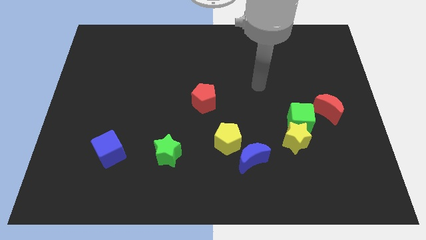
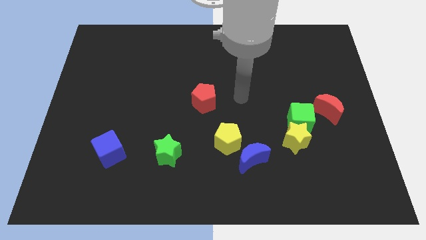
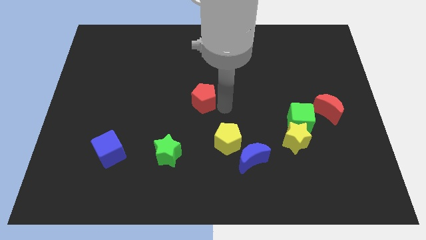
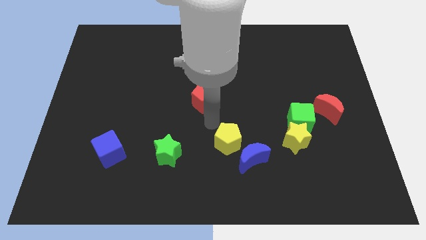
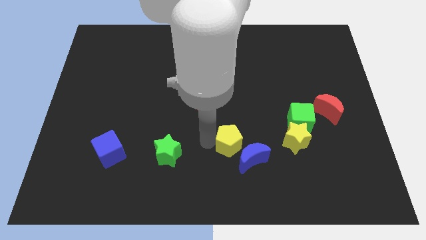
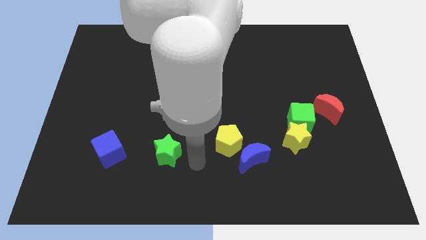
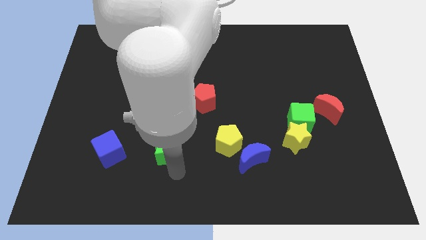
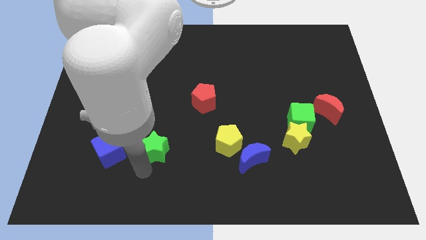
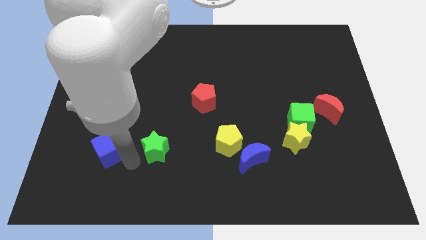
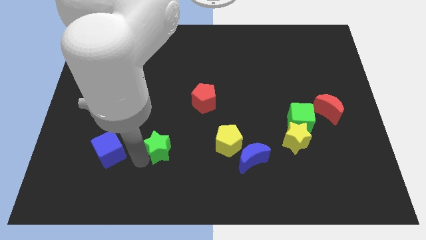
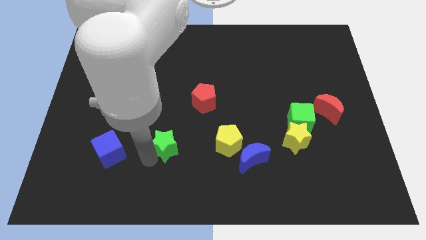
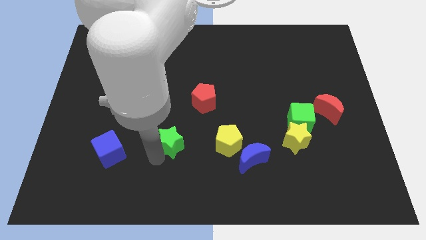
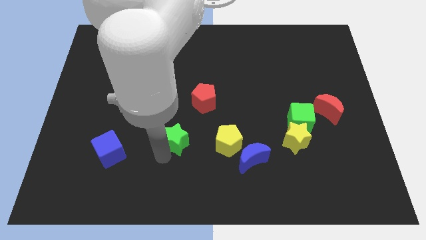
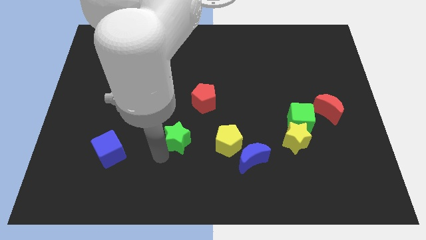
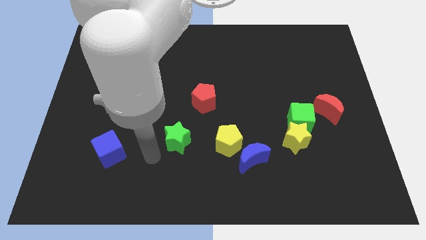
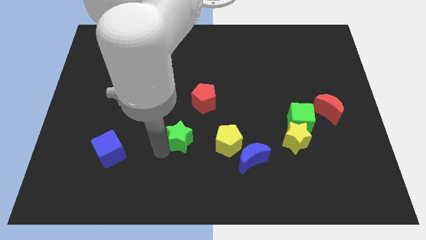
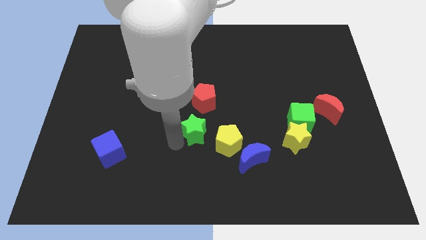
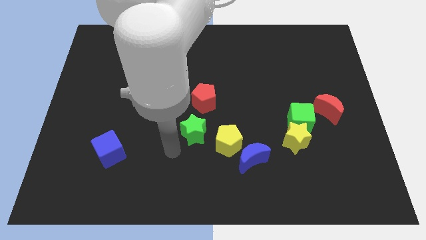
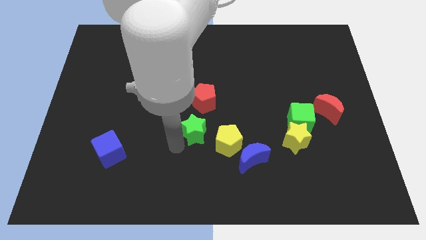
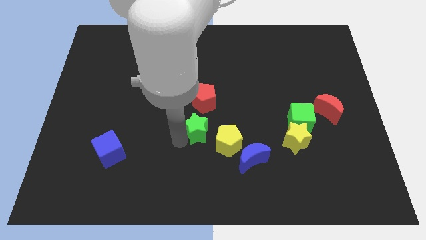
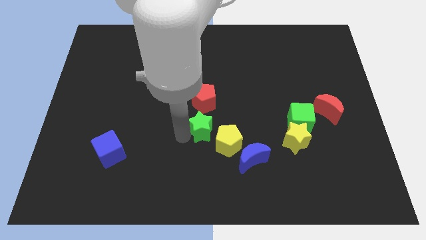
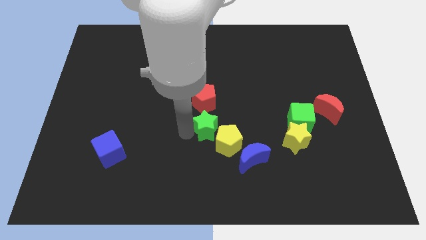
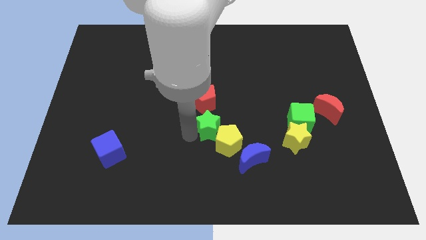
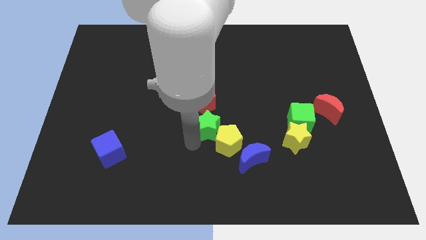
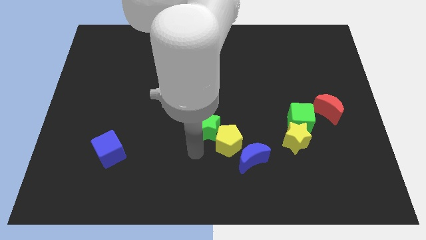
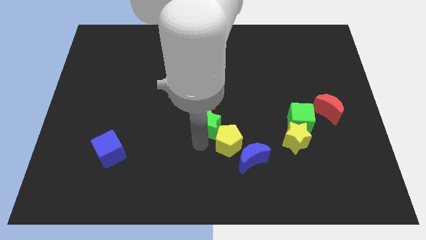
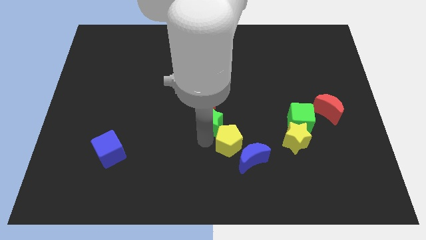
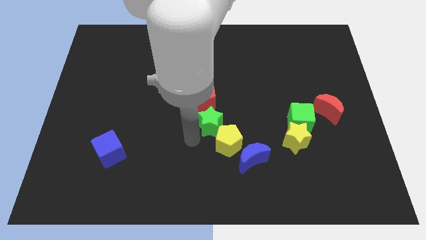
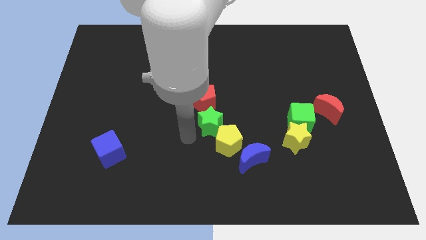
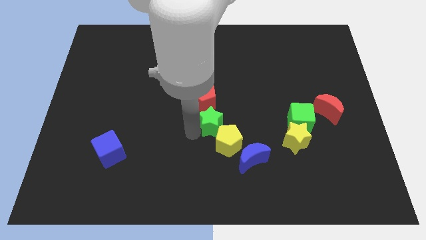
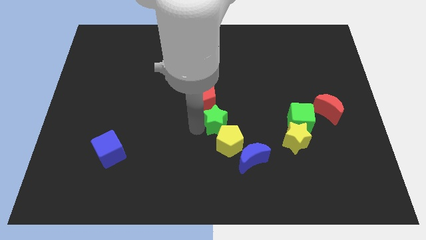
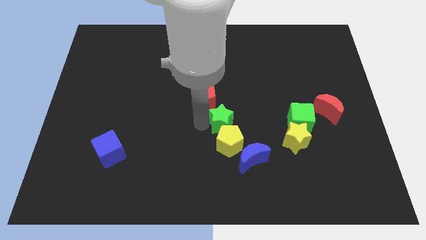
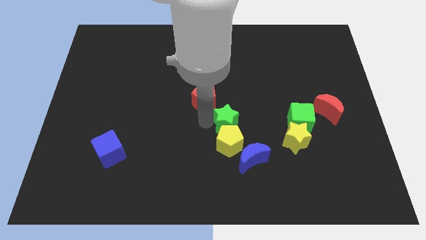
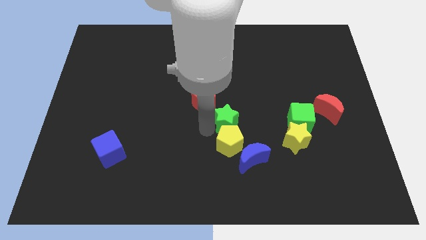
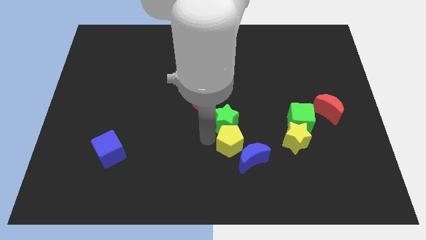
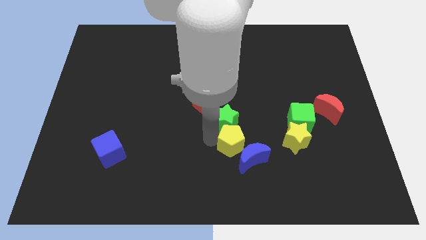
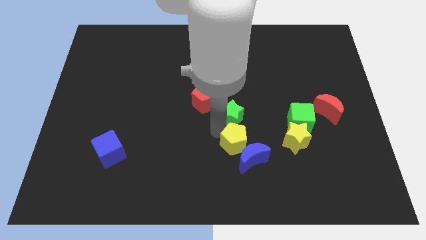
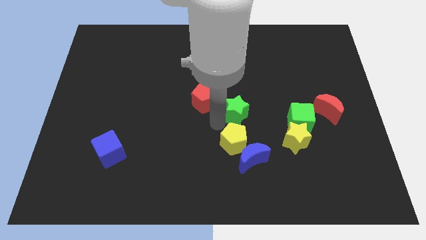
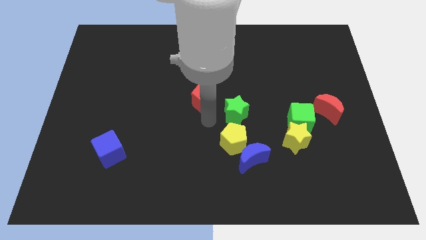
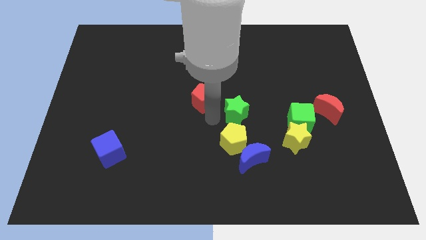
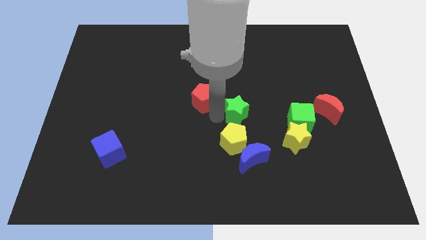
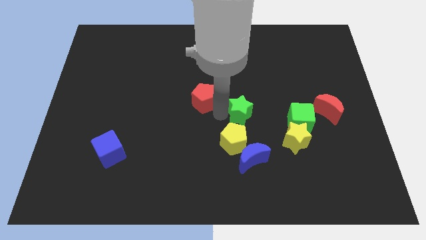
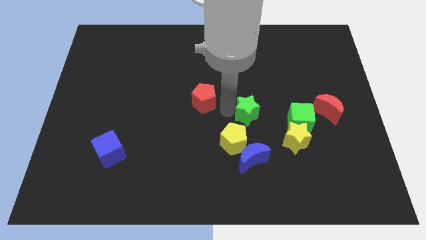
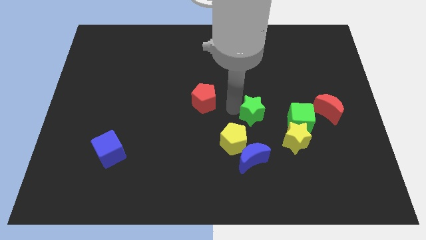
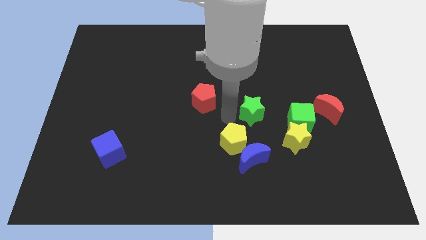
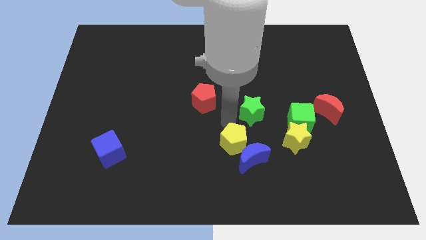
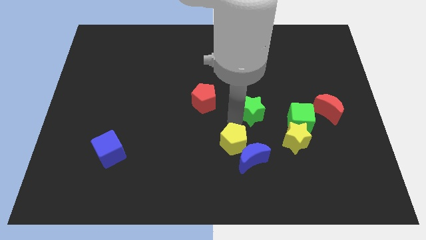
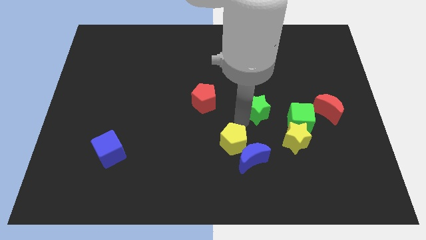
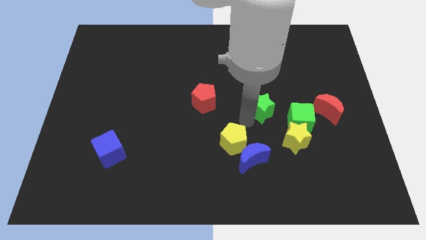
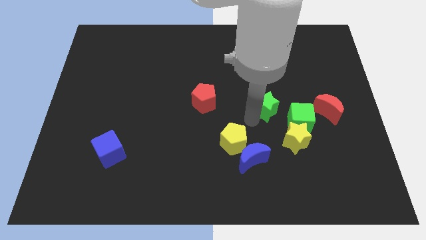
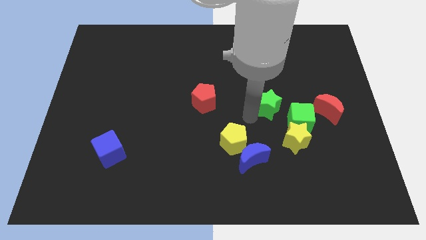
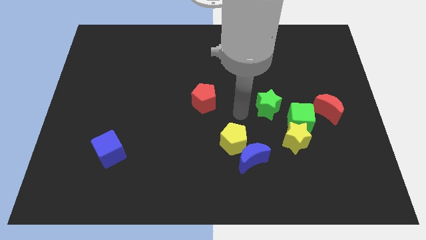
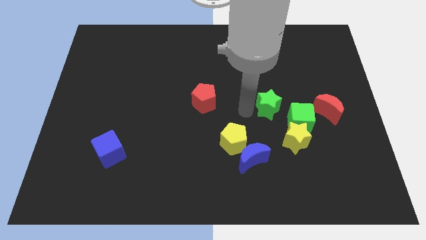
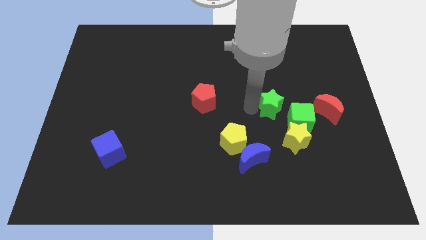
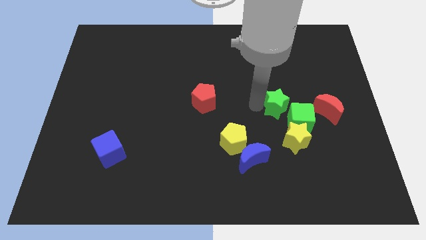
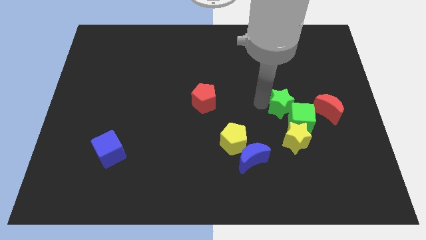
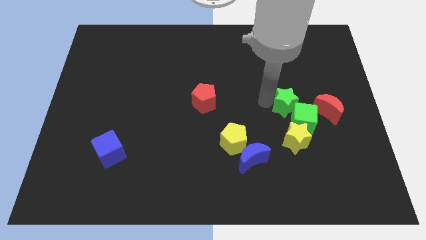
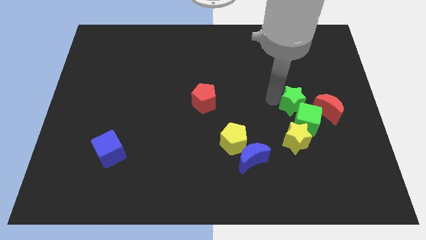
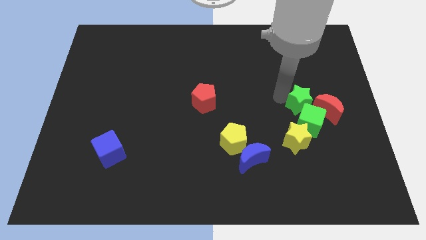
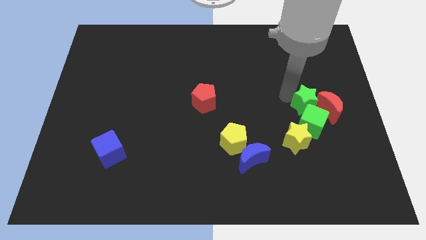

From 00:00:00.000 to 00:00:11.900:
slide the green star close to the red moon

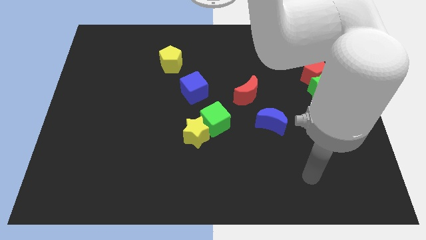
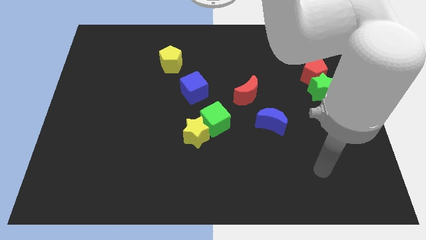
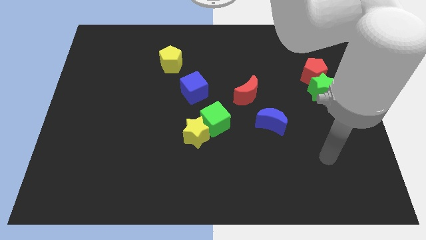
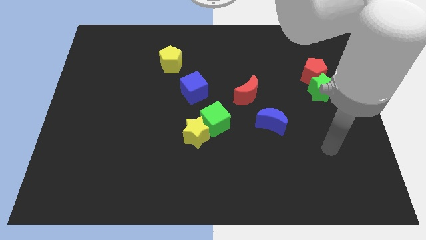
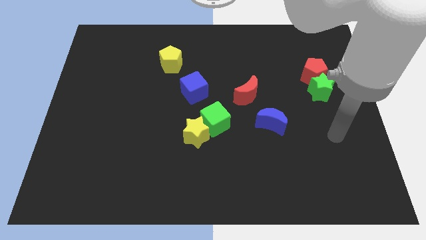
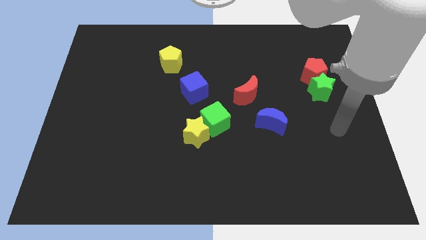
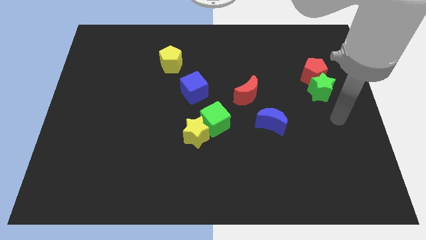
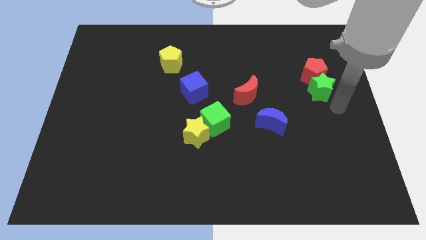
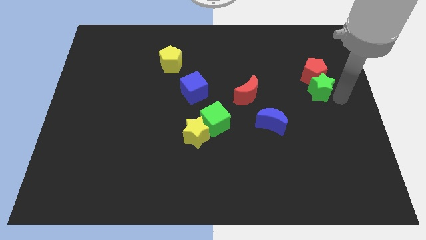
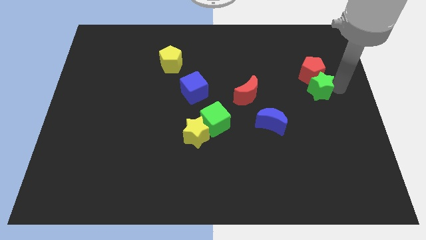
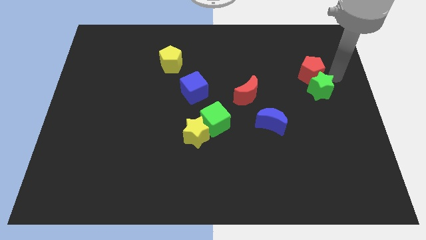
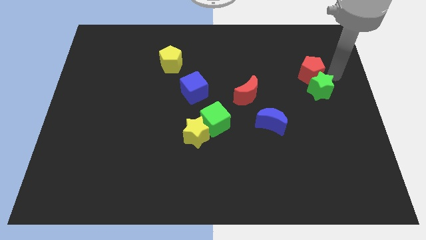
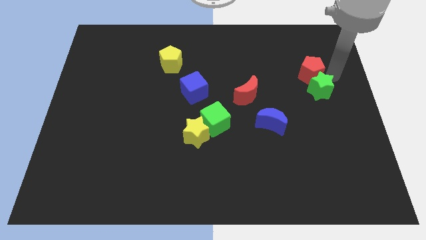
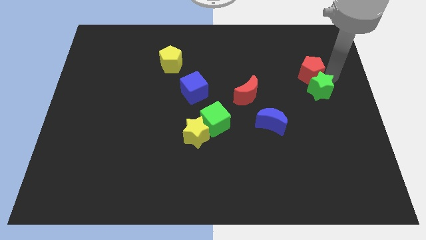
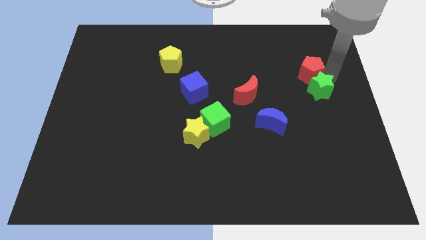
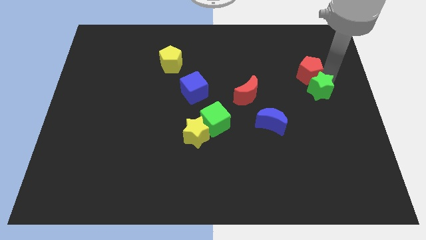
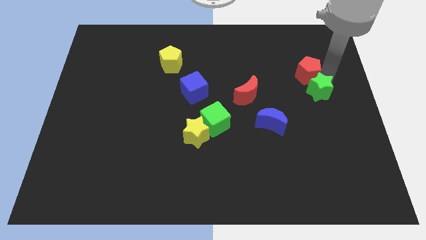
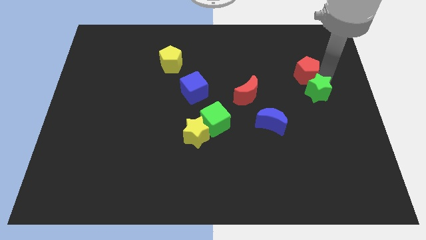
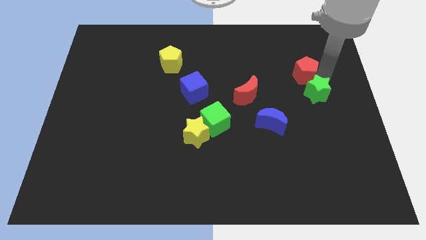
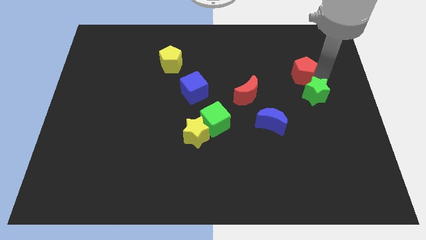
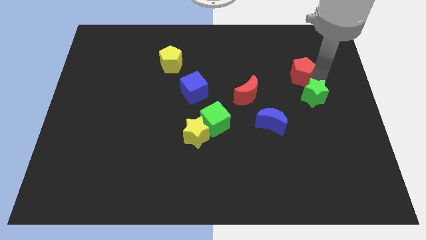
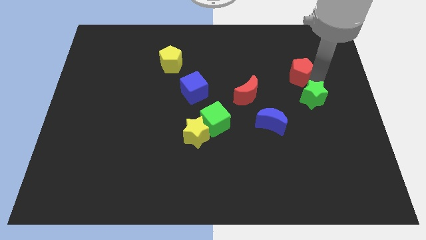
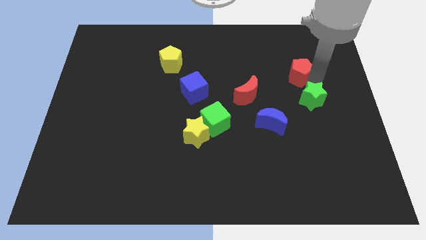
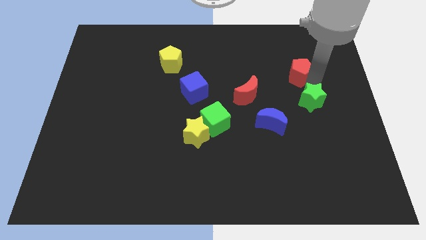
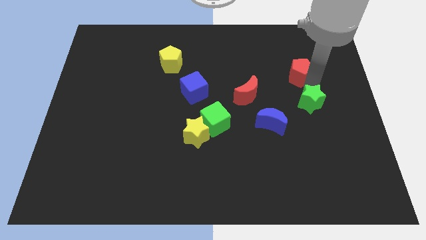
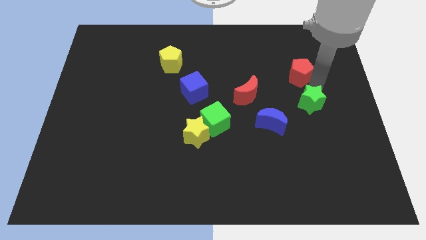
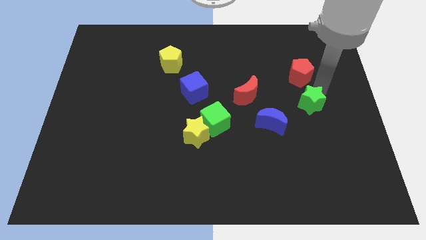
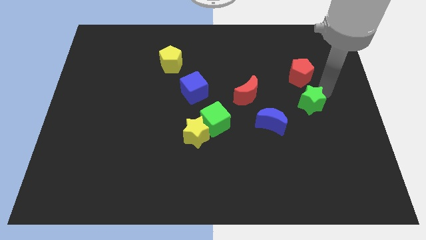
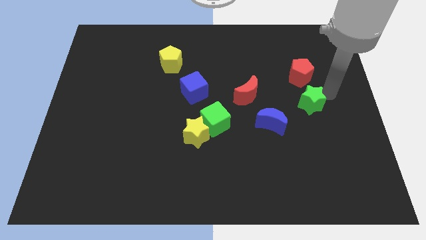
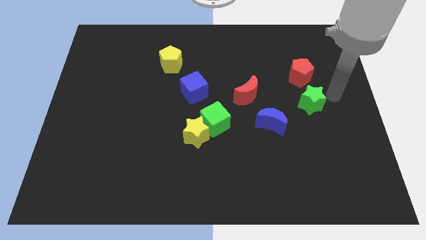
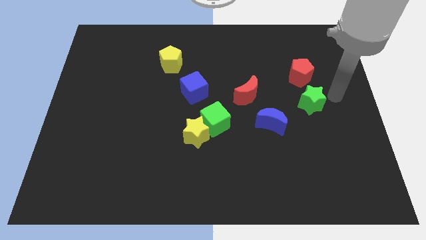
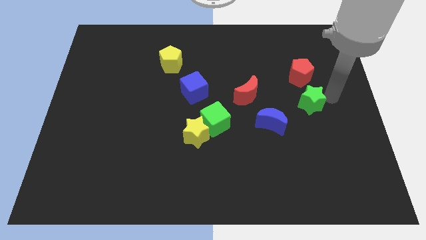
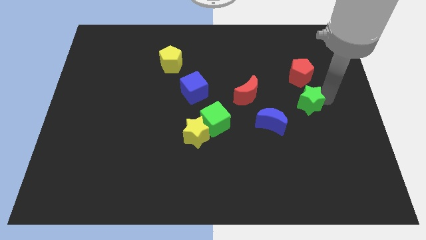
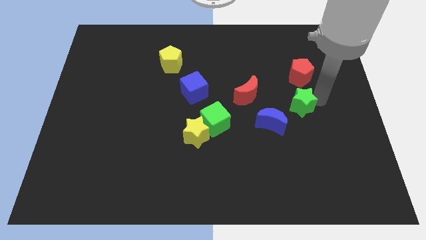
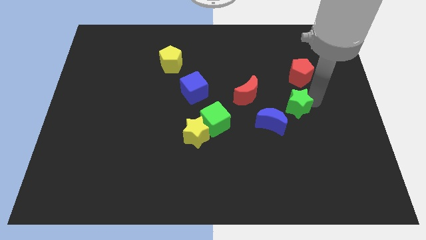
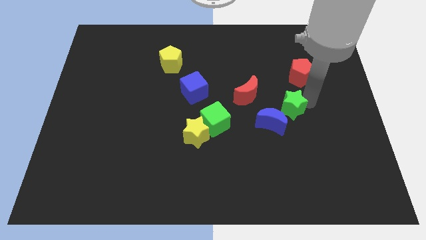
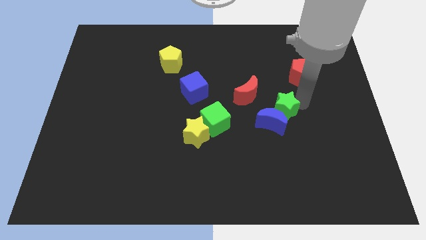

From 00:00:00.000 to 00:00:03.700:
put the green star close to the blue moon
